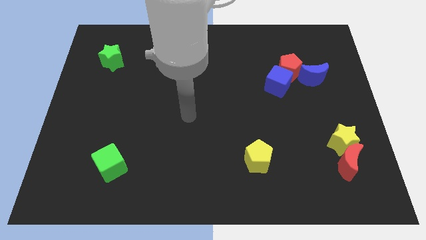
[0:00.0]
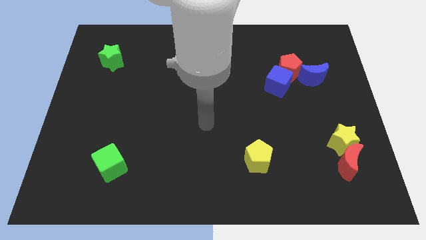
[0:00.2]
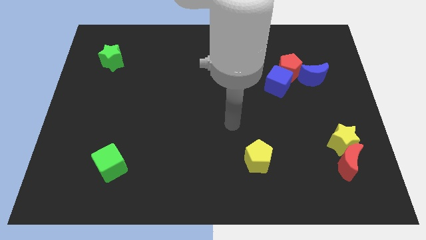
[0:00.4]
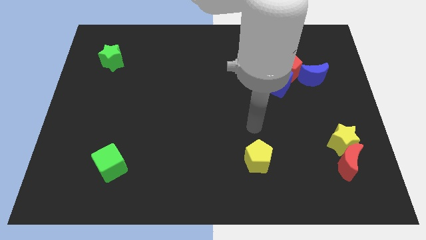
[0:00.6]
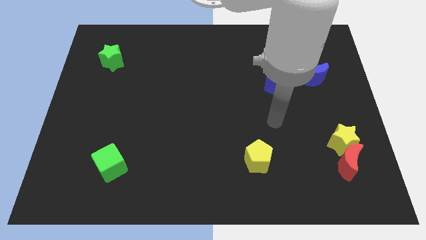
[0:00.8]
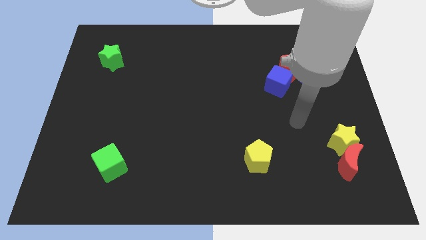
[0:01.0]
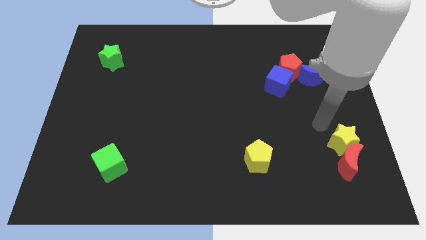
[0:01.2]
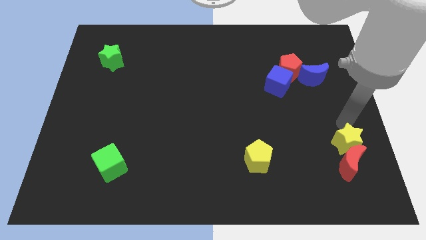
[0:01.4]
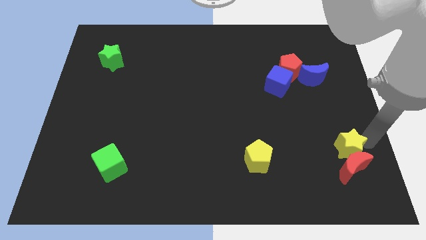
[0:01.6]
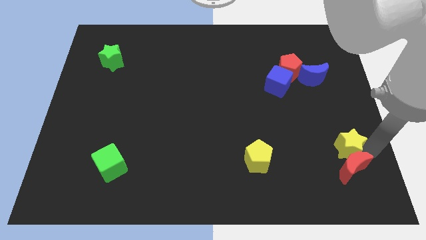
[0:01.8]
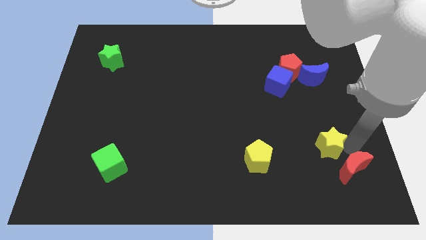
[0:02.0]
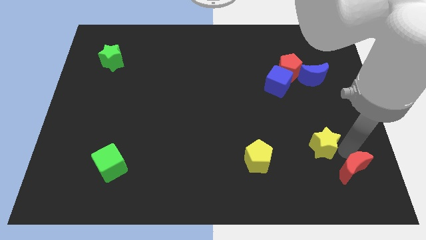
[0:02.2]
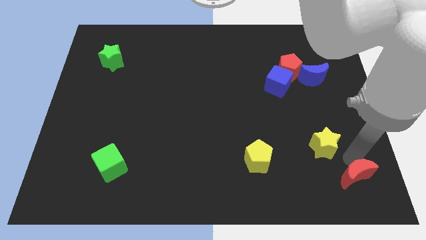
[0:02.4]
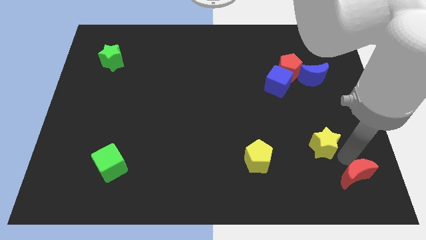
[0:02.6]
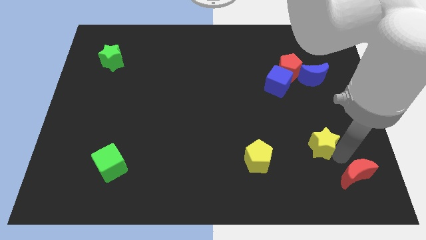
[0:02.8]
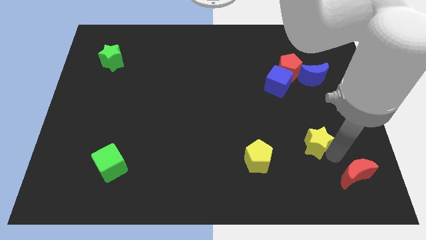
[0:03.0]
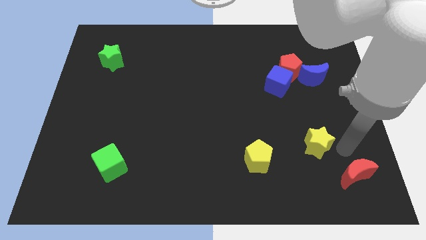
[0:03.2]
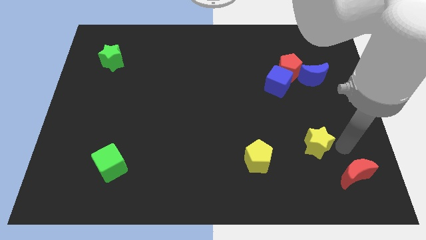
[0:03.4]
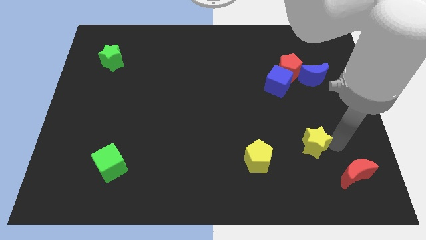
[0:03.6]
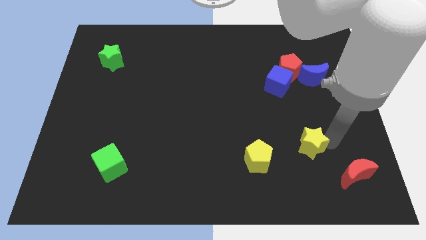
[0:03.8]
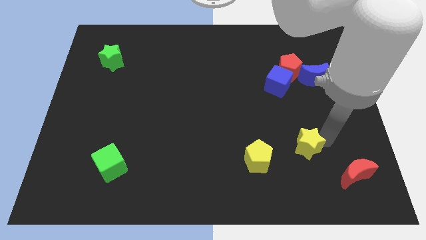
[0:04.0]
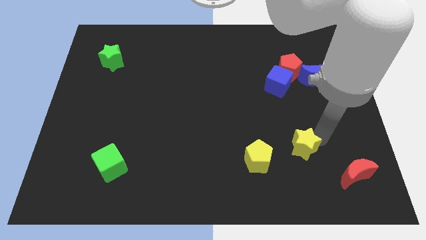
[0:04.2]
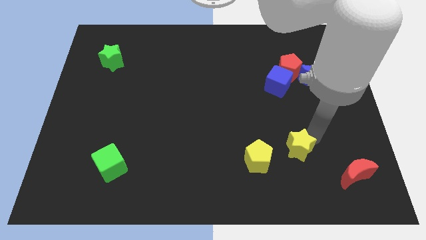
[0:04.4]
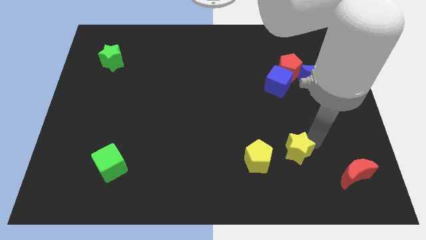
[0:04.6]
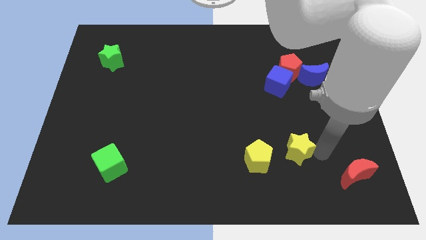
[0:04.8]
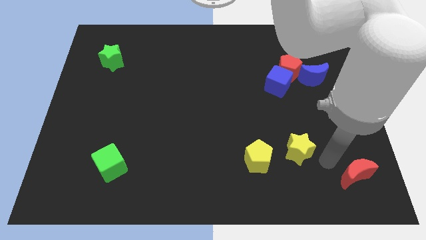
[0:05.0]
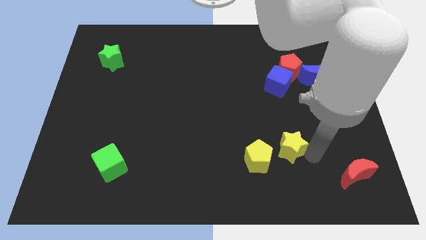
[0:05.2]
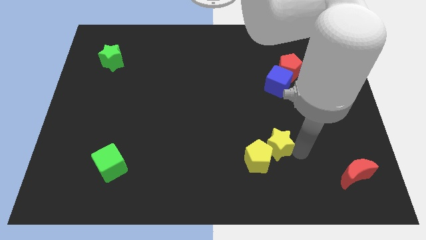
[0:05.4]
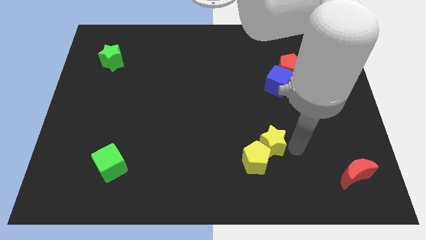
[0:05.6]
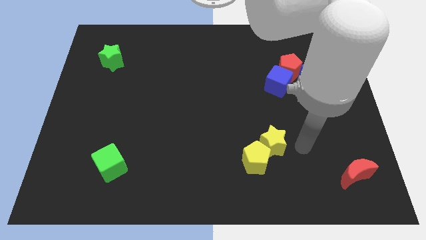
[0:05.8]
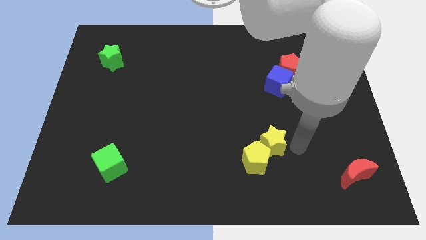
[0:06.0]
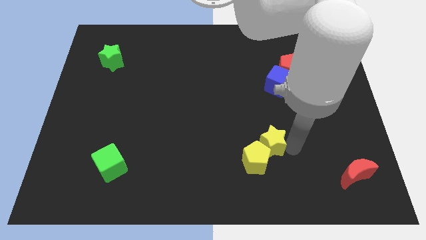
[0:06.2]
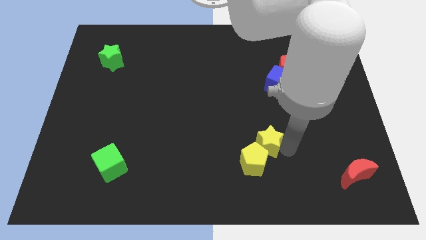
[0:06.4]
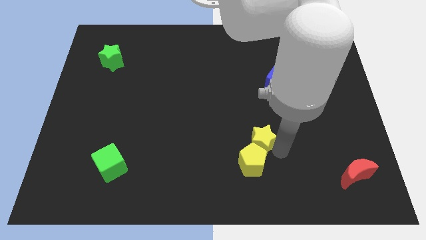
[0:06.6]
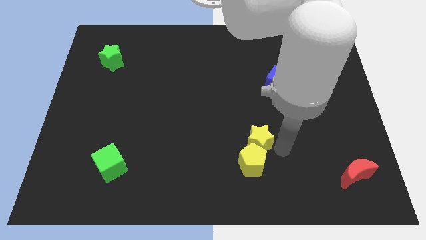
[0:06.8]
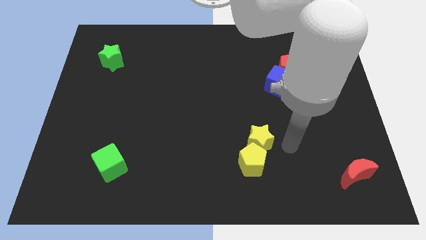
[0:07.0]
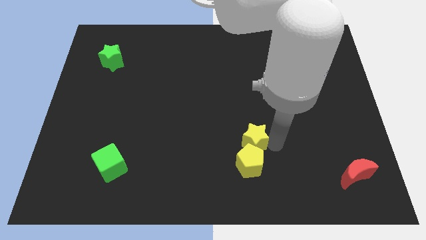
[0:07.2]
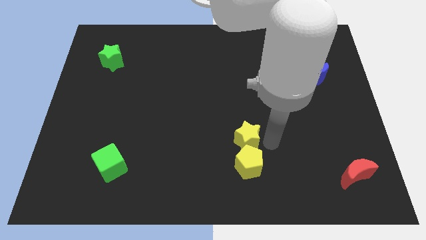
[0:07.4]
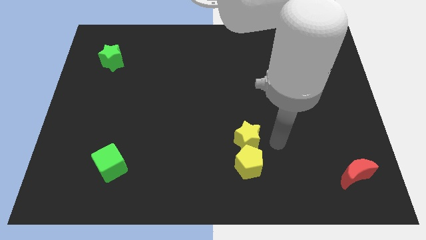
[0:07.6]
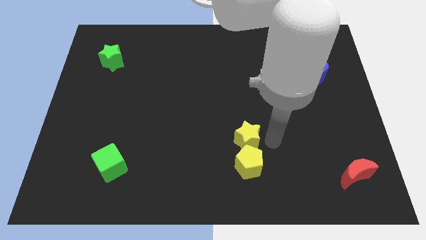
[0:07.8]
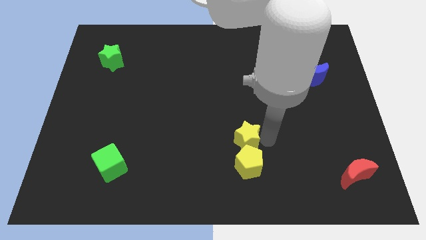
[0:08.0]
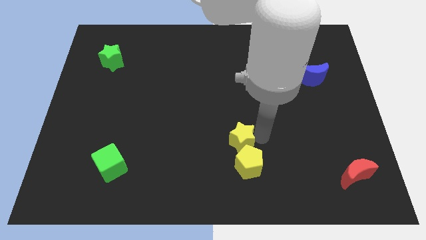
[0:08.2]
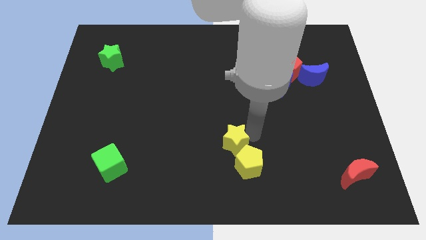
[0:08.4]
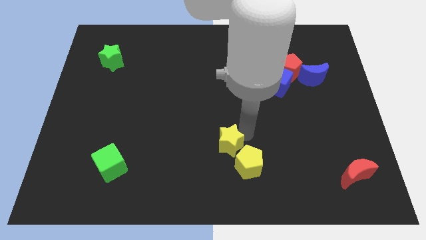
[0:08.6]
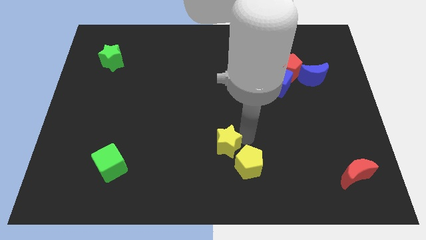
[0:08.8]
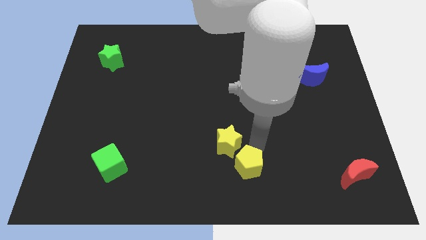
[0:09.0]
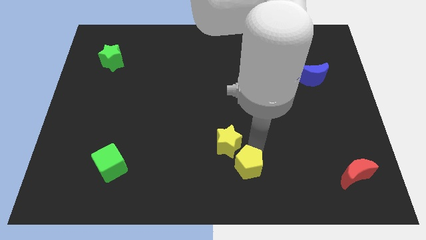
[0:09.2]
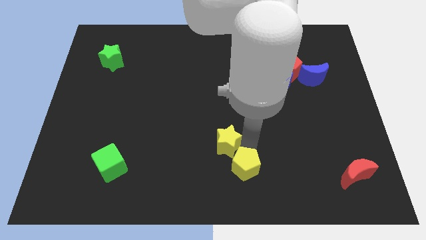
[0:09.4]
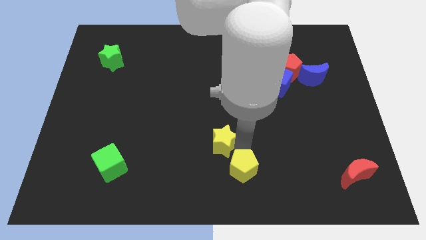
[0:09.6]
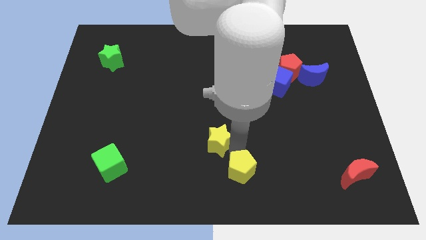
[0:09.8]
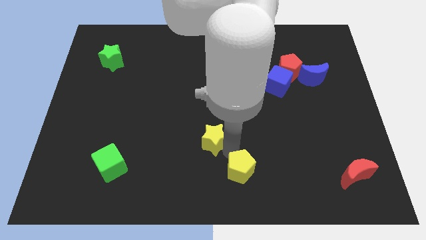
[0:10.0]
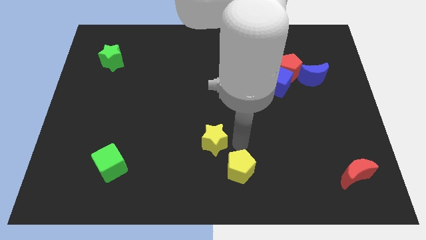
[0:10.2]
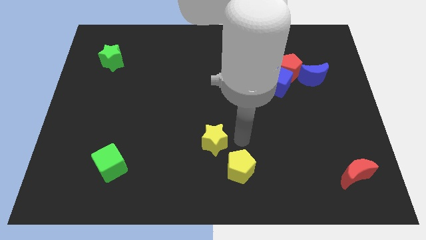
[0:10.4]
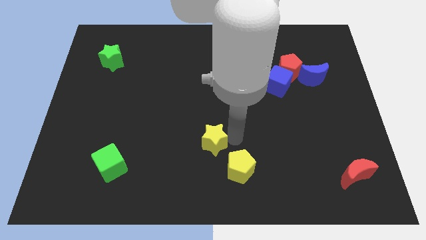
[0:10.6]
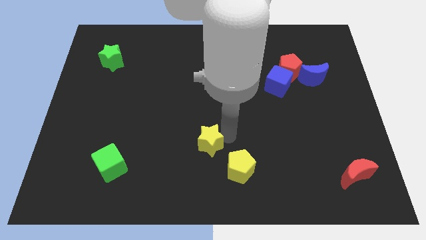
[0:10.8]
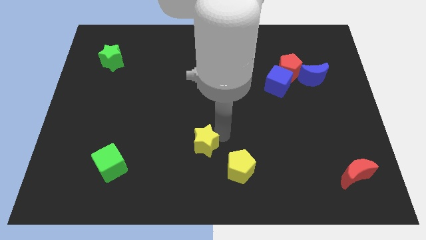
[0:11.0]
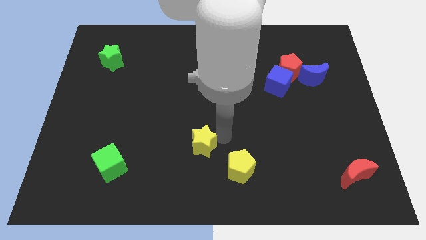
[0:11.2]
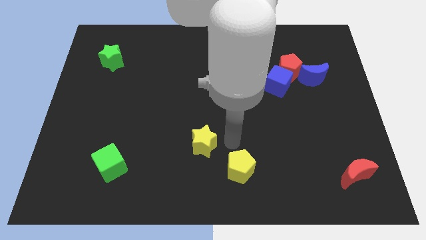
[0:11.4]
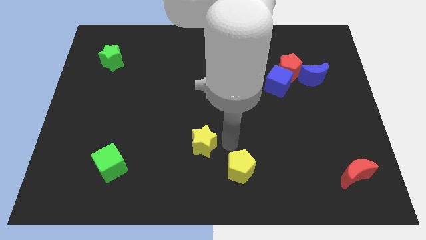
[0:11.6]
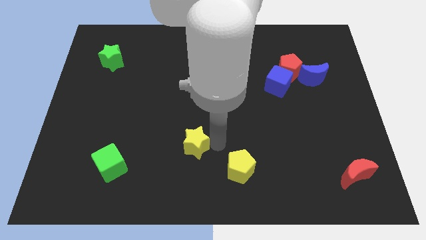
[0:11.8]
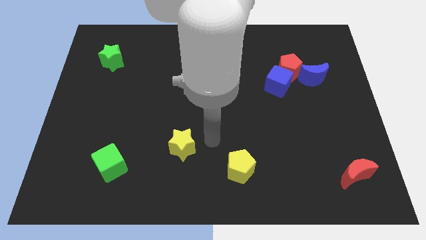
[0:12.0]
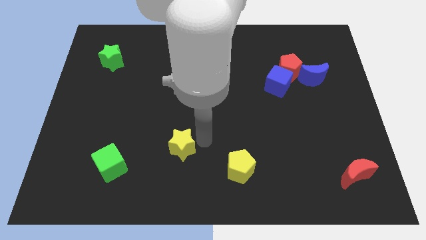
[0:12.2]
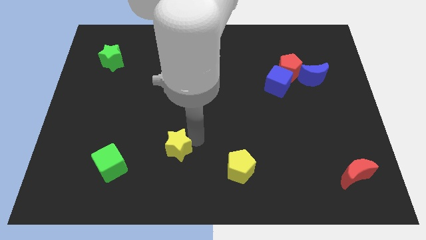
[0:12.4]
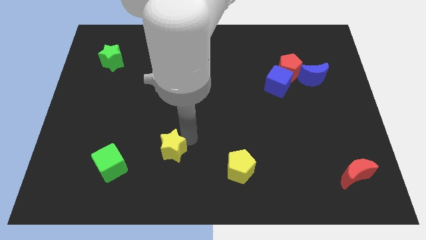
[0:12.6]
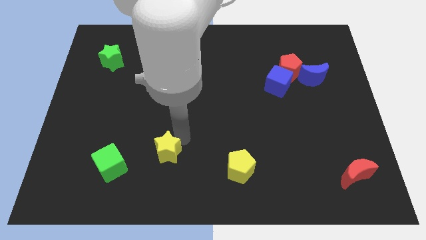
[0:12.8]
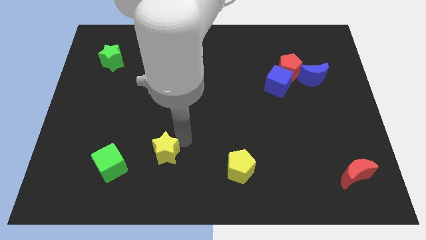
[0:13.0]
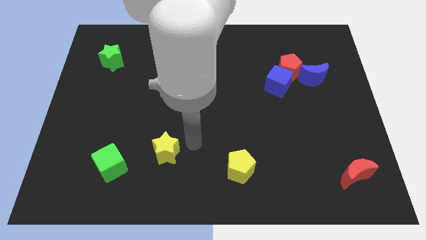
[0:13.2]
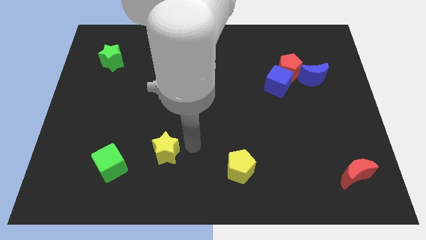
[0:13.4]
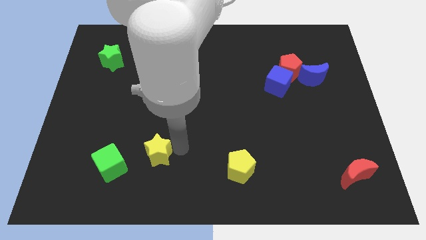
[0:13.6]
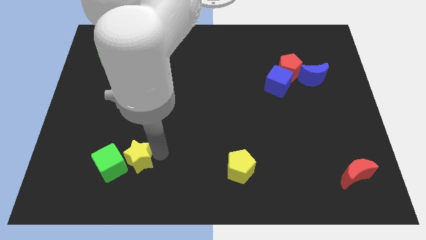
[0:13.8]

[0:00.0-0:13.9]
put the yellow star next to the green cube

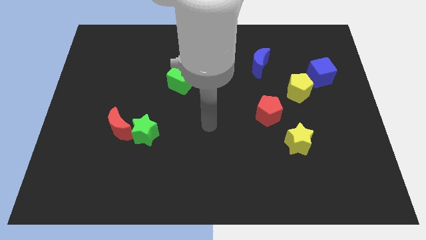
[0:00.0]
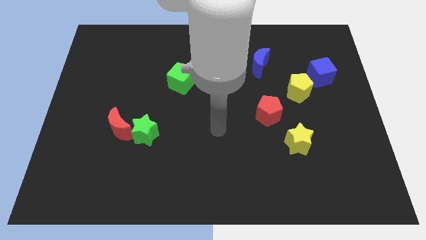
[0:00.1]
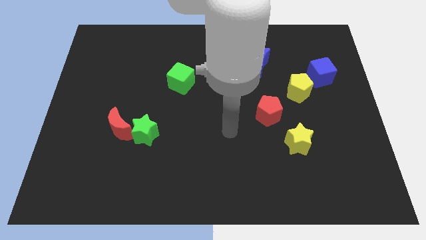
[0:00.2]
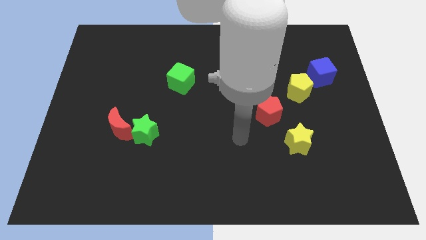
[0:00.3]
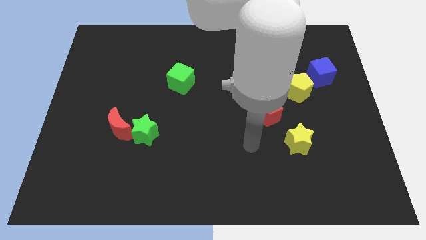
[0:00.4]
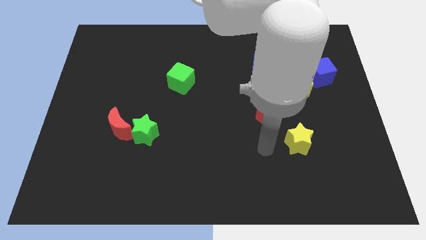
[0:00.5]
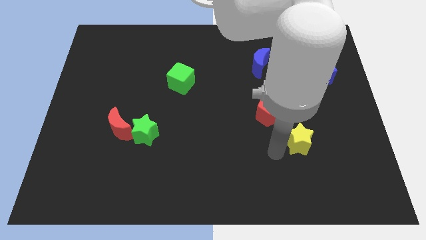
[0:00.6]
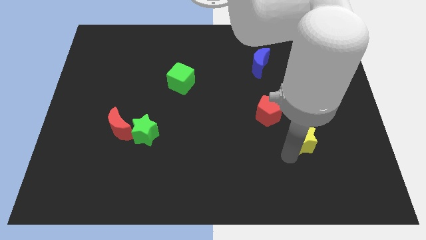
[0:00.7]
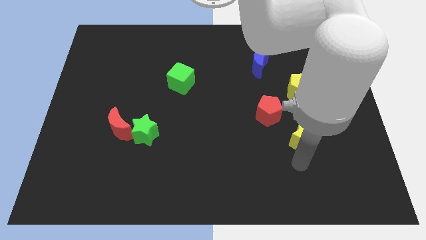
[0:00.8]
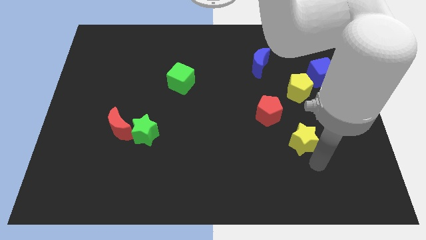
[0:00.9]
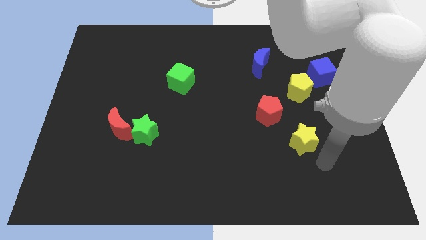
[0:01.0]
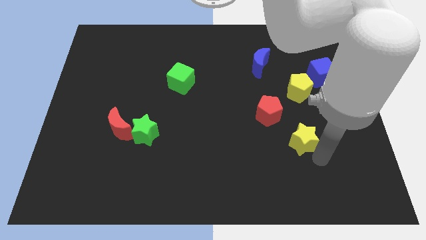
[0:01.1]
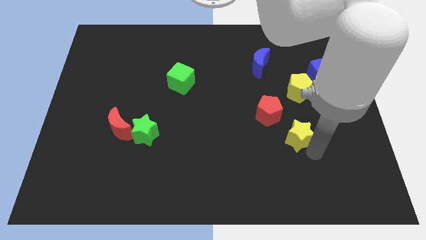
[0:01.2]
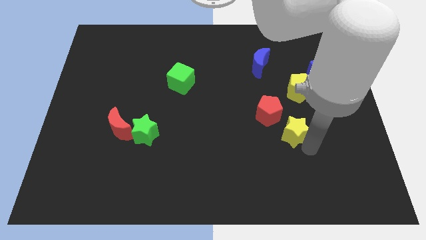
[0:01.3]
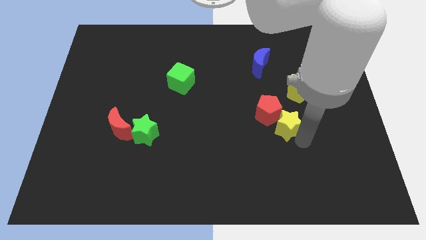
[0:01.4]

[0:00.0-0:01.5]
push the yellow star to the red pentagon
